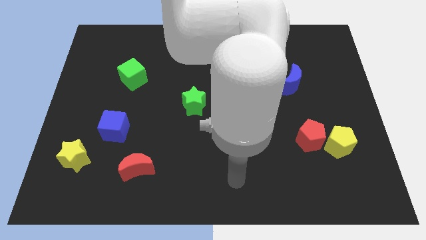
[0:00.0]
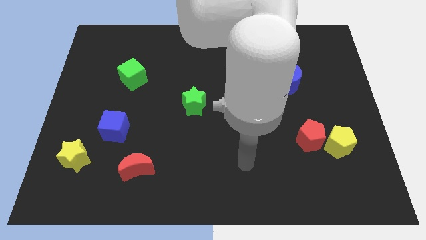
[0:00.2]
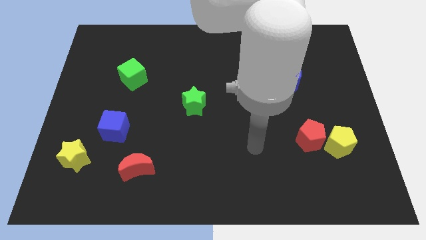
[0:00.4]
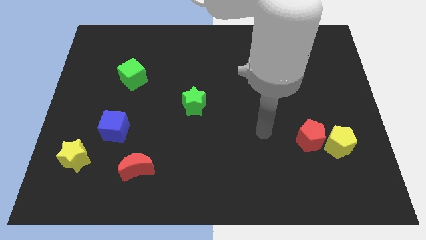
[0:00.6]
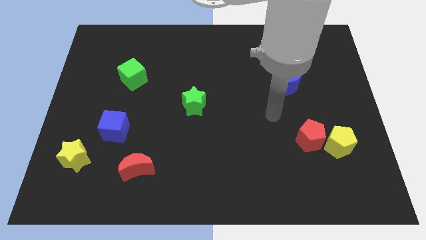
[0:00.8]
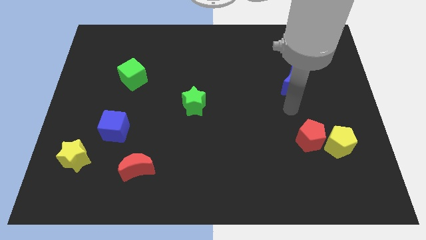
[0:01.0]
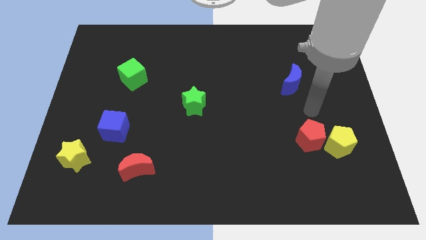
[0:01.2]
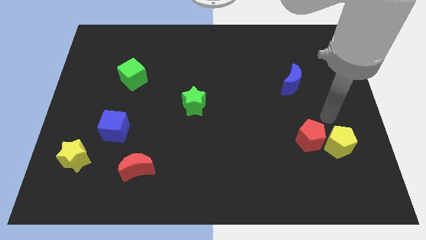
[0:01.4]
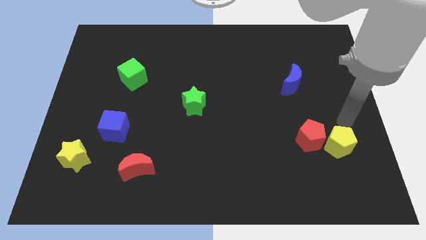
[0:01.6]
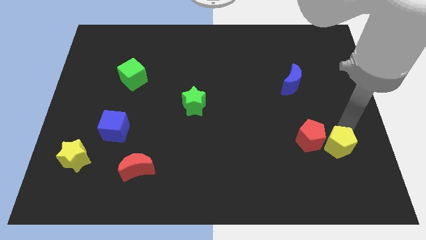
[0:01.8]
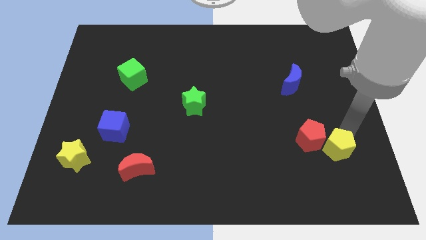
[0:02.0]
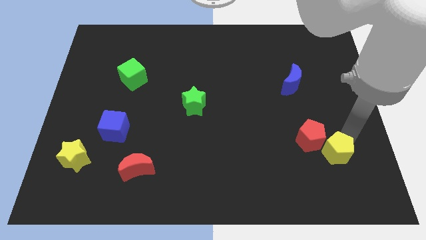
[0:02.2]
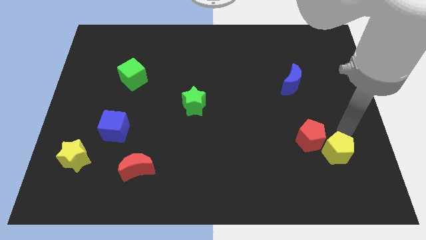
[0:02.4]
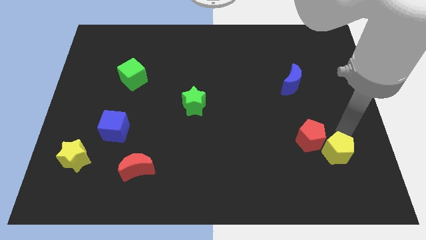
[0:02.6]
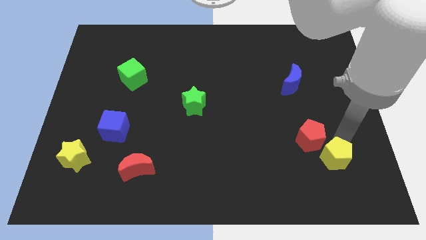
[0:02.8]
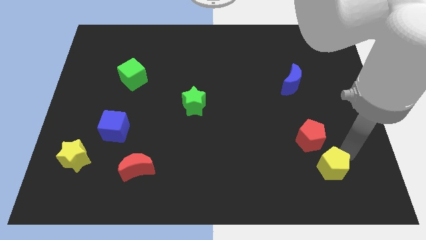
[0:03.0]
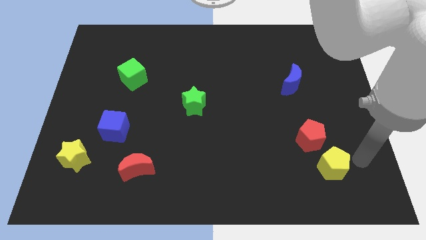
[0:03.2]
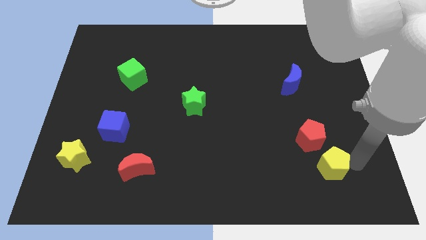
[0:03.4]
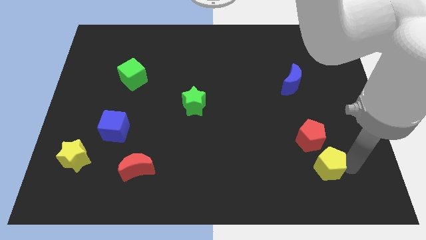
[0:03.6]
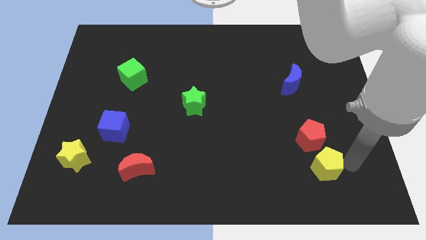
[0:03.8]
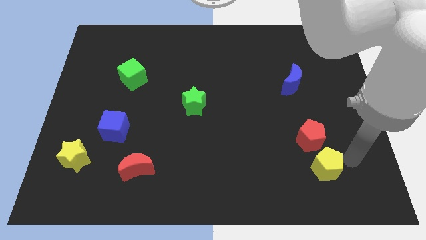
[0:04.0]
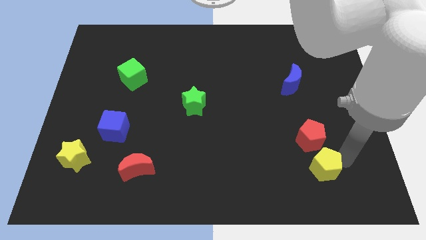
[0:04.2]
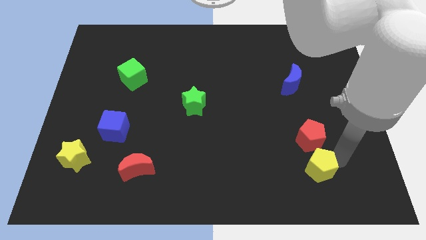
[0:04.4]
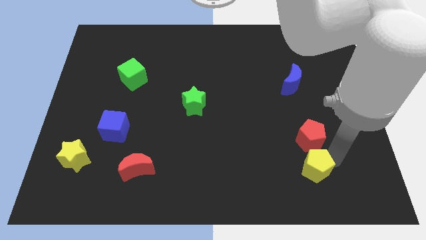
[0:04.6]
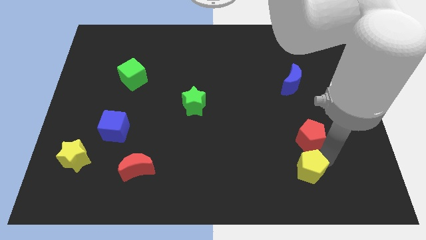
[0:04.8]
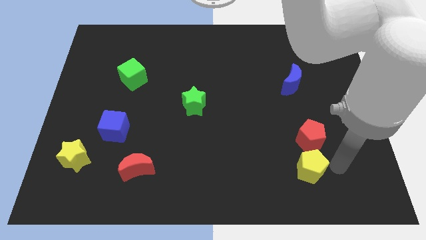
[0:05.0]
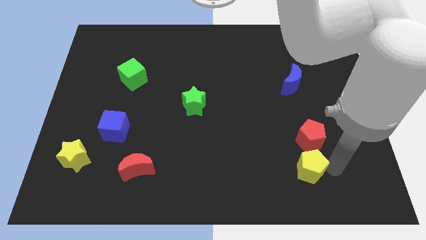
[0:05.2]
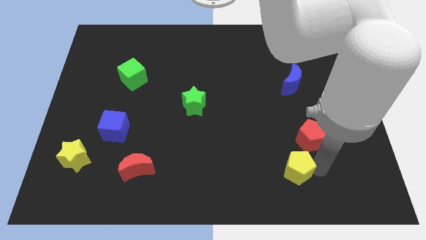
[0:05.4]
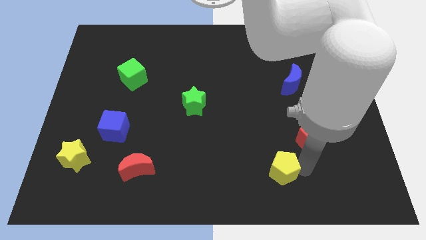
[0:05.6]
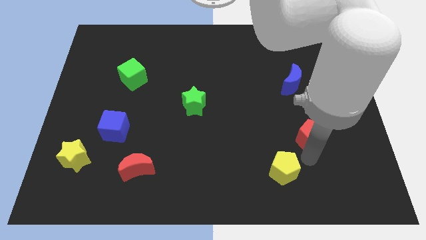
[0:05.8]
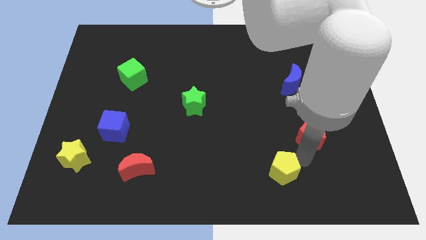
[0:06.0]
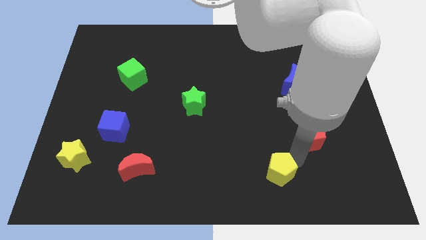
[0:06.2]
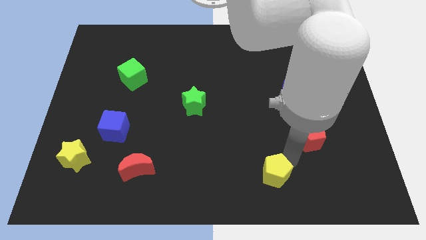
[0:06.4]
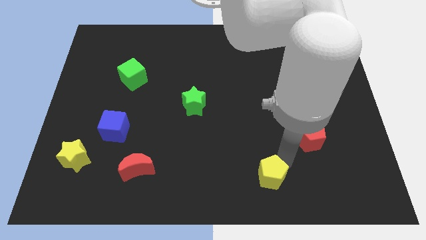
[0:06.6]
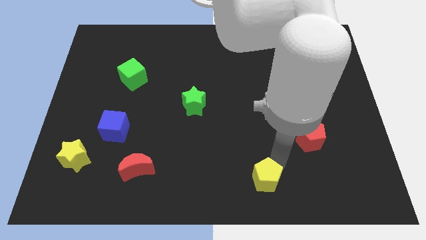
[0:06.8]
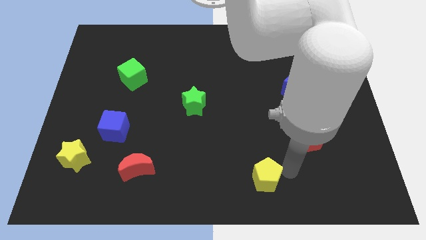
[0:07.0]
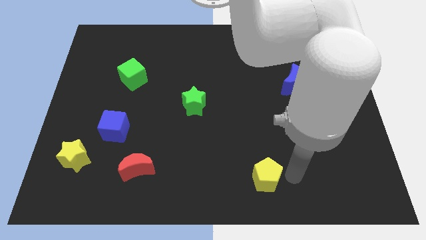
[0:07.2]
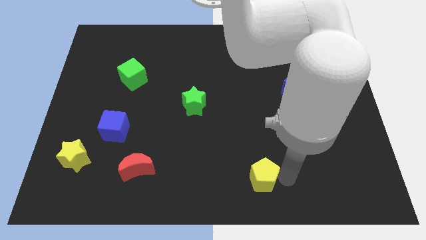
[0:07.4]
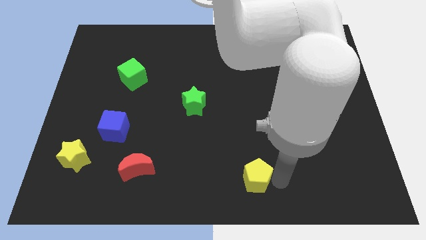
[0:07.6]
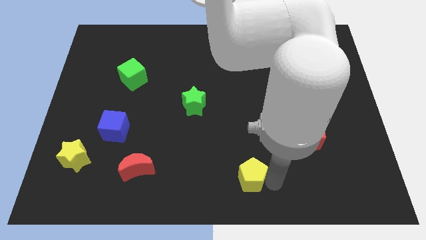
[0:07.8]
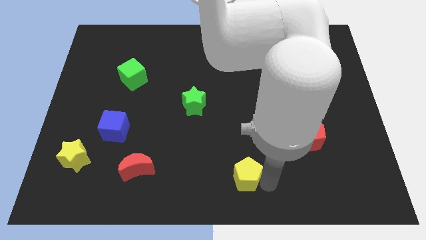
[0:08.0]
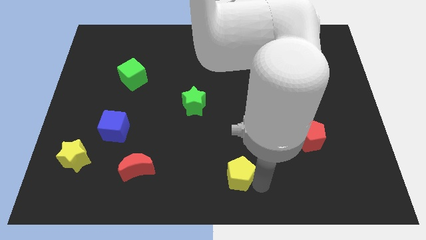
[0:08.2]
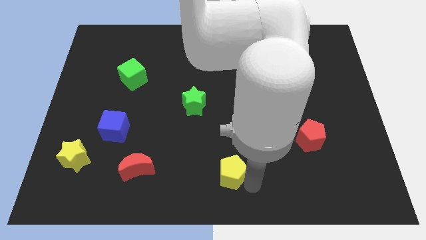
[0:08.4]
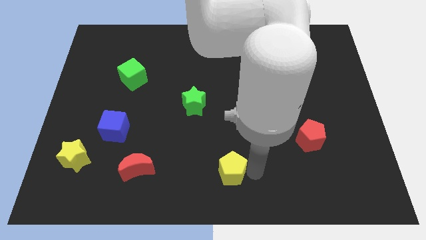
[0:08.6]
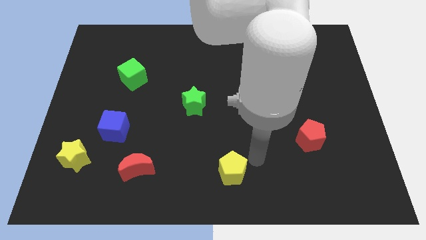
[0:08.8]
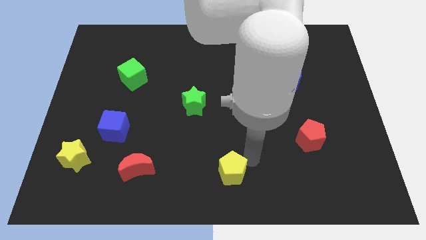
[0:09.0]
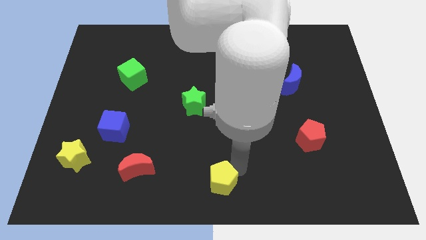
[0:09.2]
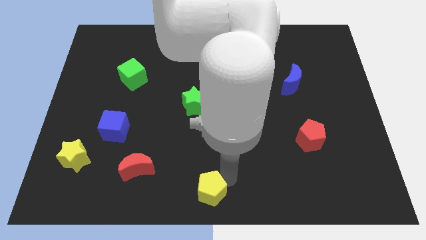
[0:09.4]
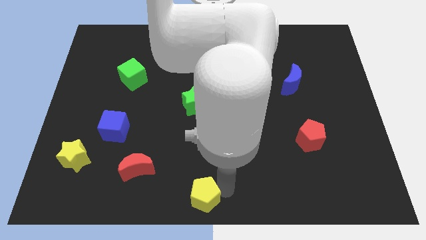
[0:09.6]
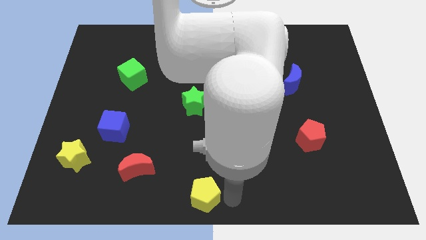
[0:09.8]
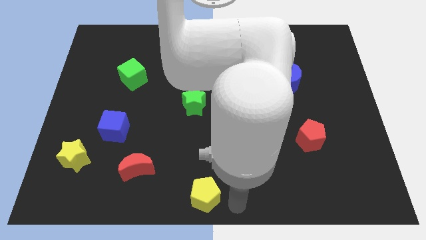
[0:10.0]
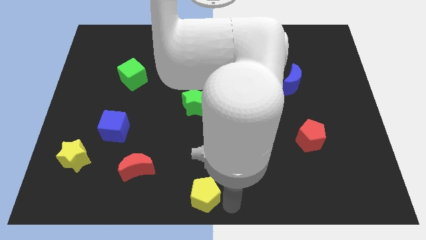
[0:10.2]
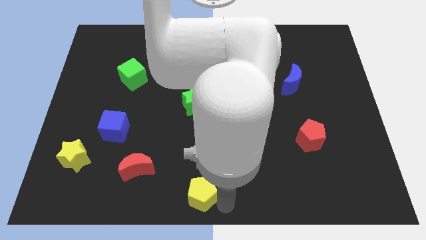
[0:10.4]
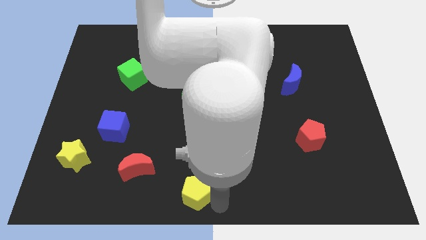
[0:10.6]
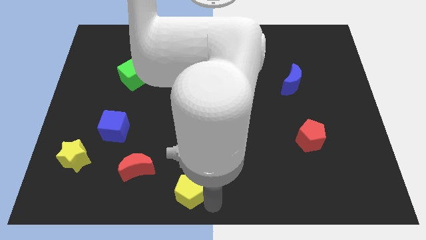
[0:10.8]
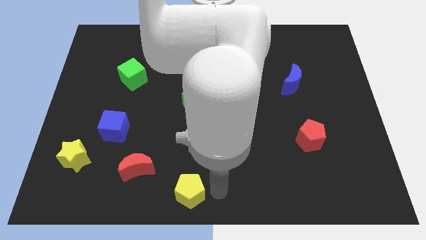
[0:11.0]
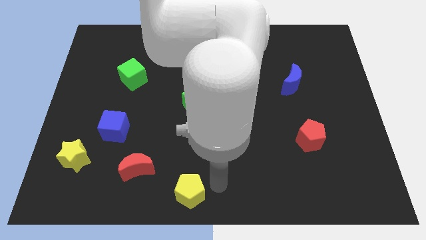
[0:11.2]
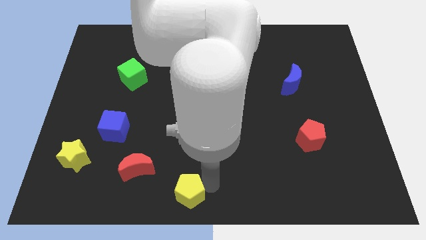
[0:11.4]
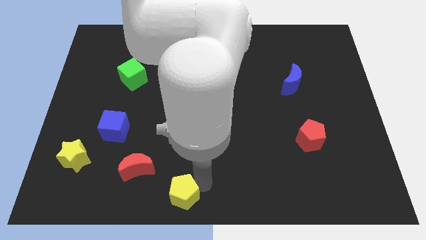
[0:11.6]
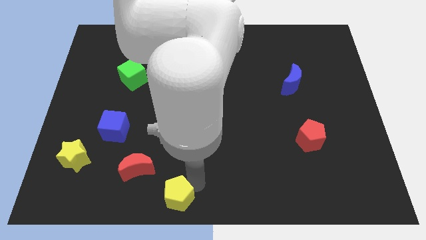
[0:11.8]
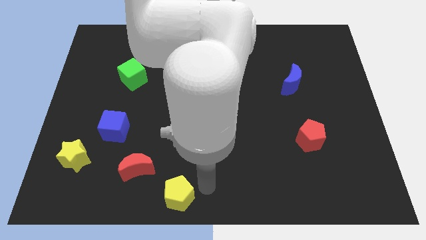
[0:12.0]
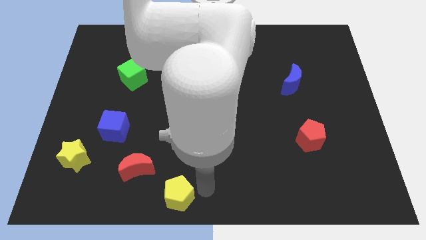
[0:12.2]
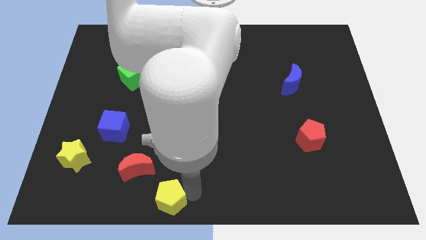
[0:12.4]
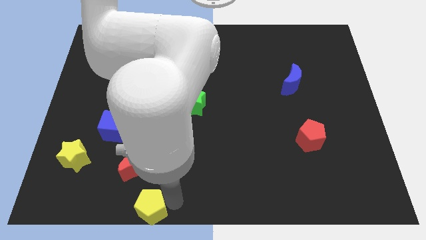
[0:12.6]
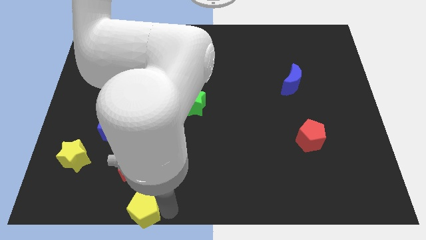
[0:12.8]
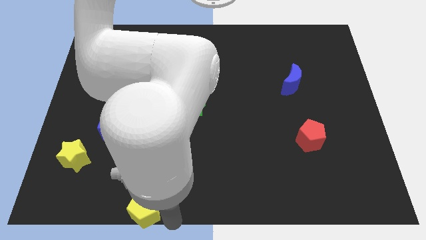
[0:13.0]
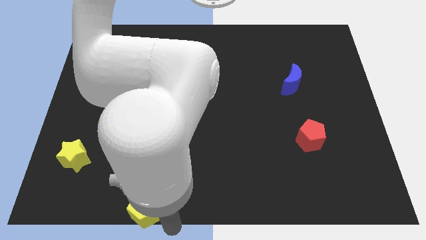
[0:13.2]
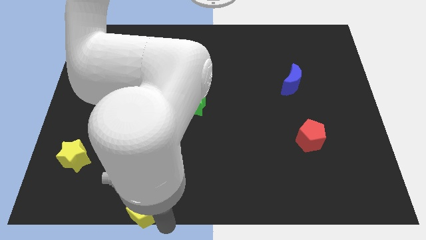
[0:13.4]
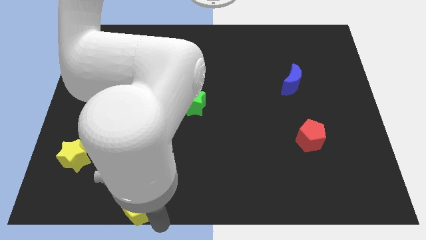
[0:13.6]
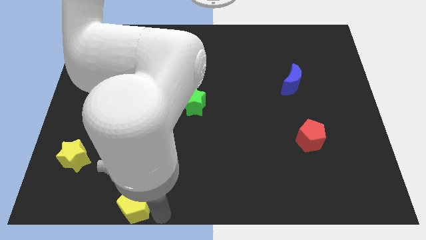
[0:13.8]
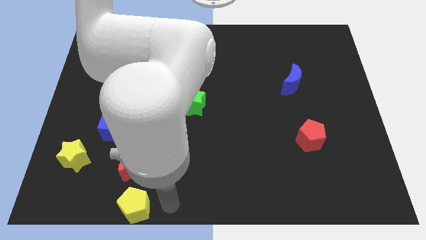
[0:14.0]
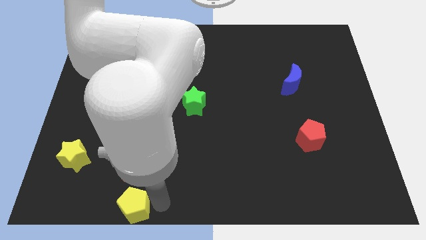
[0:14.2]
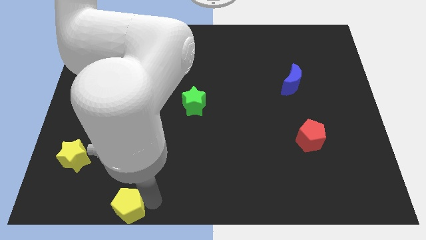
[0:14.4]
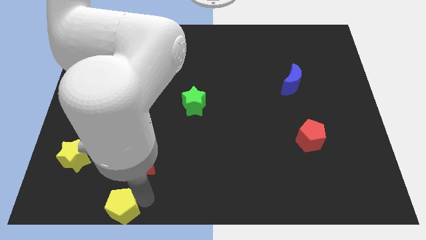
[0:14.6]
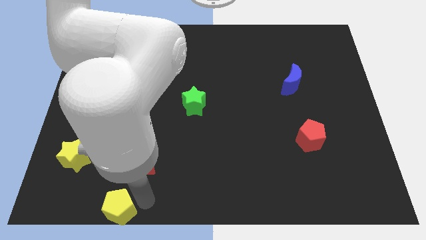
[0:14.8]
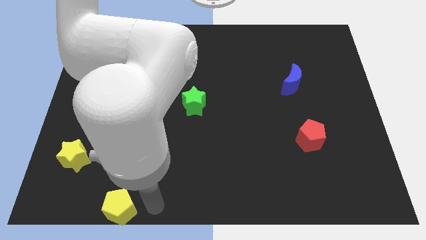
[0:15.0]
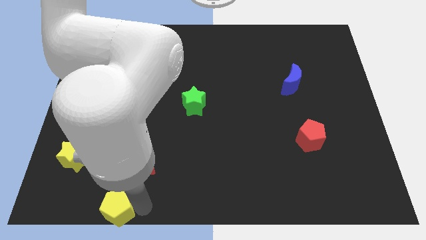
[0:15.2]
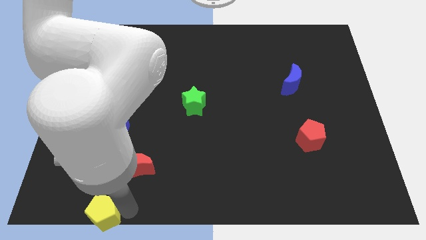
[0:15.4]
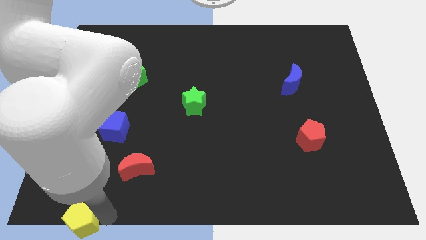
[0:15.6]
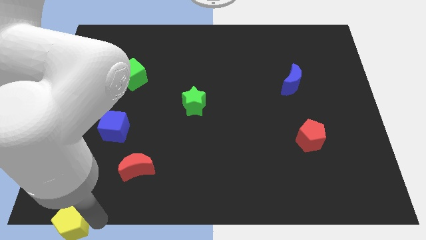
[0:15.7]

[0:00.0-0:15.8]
push the yellow pentagon to the bottom left corner
